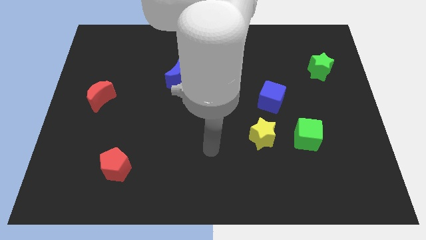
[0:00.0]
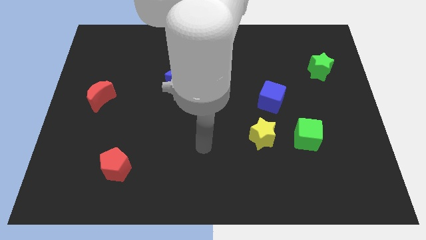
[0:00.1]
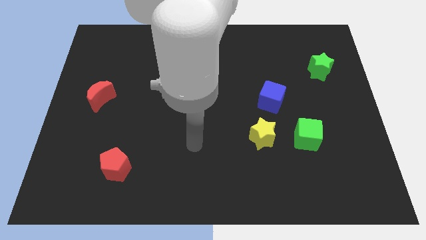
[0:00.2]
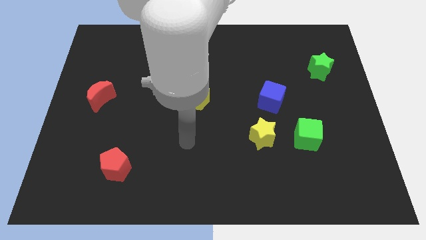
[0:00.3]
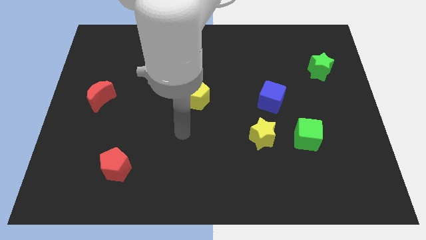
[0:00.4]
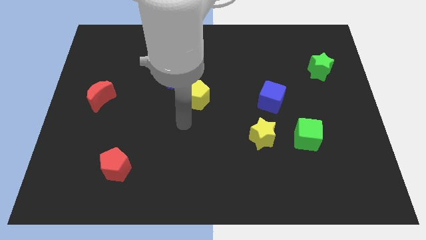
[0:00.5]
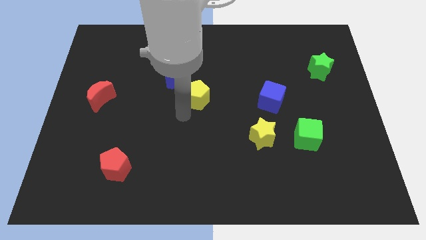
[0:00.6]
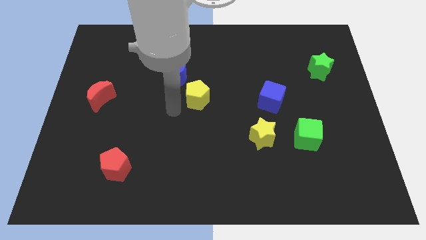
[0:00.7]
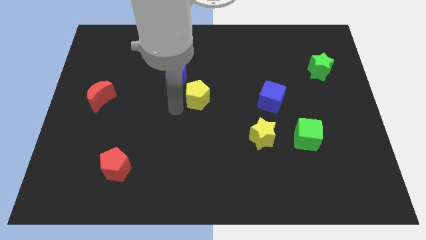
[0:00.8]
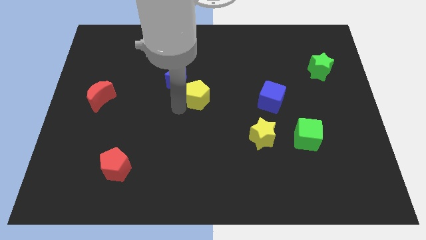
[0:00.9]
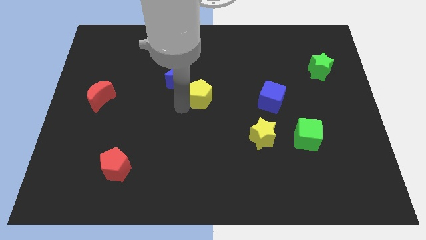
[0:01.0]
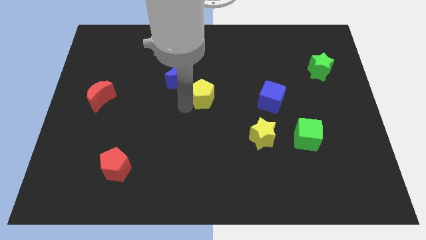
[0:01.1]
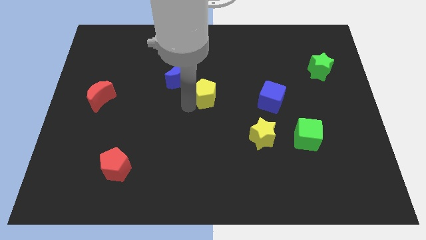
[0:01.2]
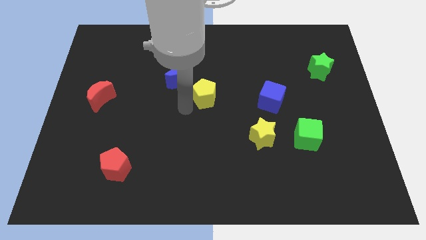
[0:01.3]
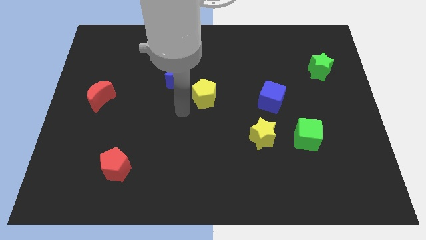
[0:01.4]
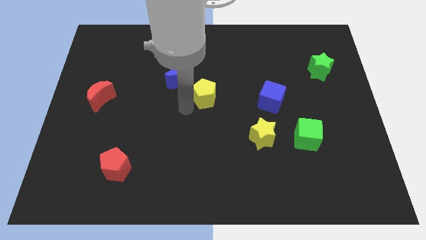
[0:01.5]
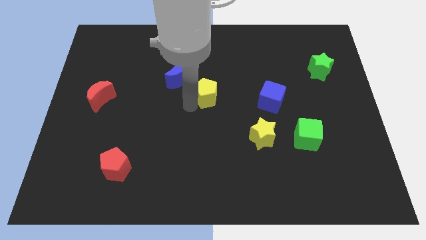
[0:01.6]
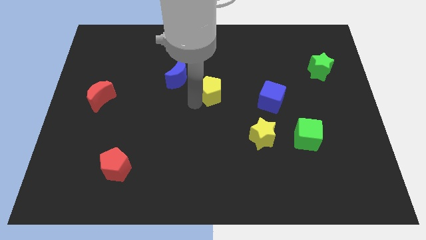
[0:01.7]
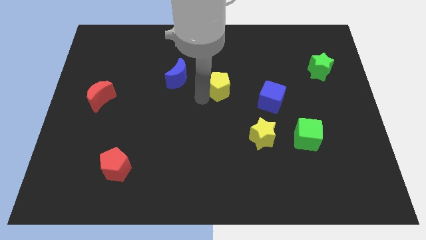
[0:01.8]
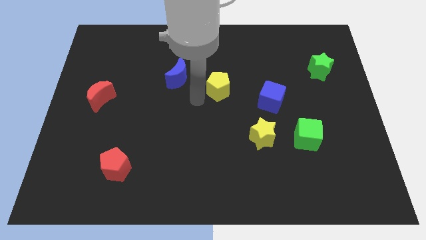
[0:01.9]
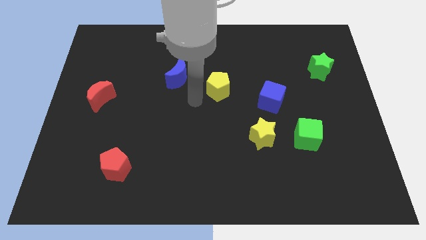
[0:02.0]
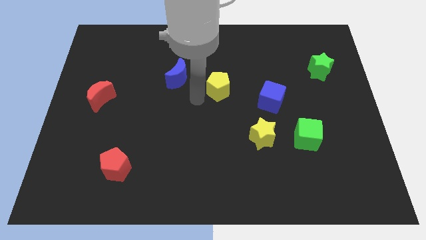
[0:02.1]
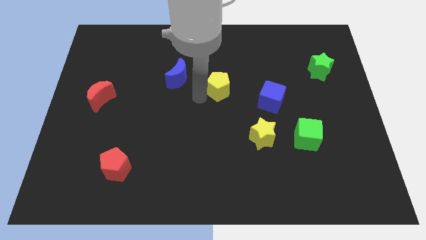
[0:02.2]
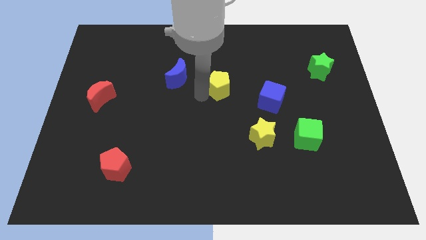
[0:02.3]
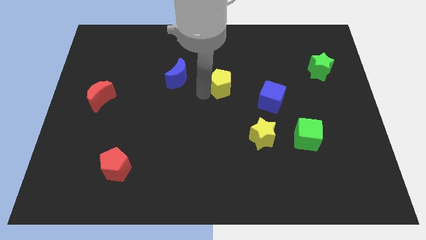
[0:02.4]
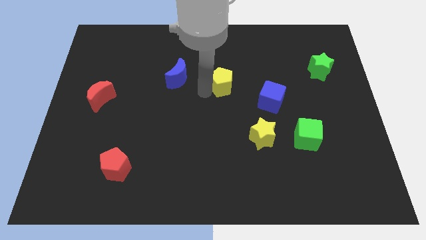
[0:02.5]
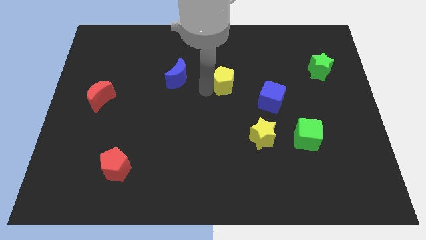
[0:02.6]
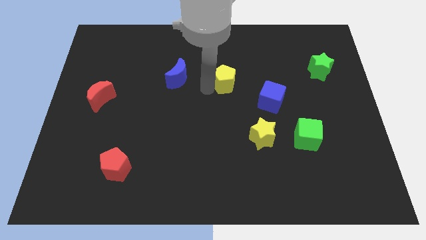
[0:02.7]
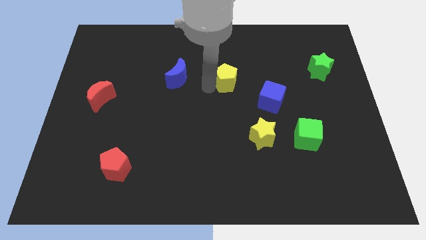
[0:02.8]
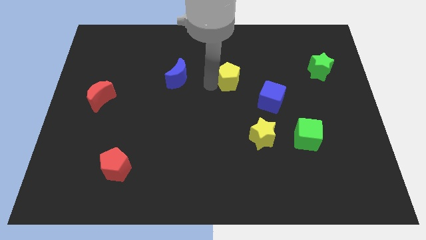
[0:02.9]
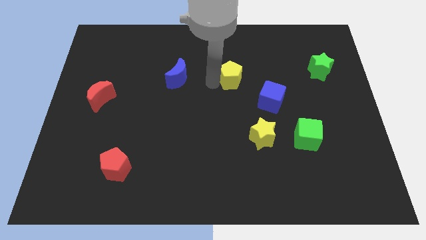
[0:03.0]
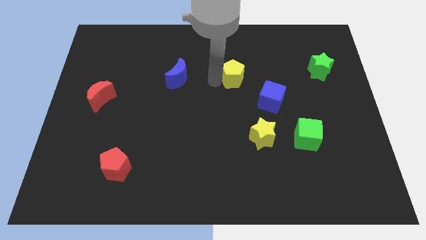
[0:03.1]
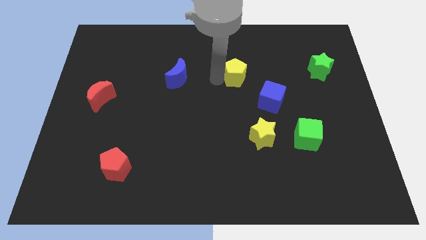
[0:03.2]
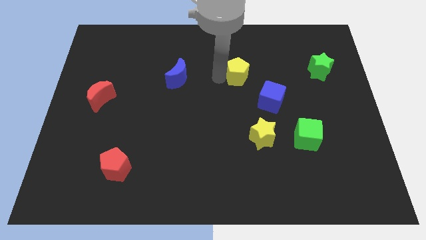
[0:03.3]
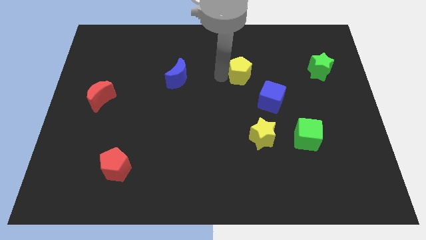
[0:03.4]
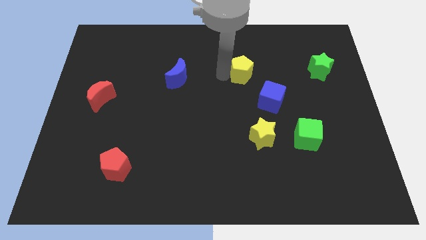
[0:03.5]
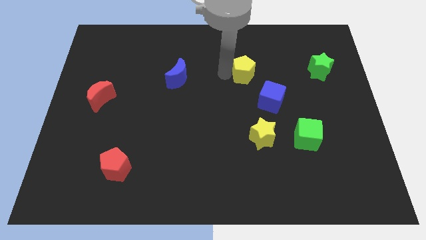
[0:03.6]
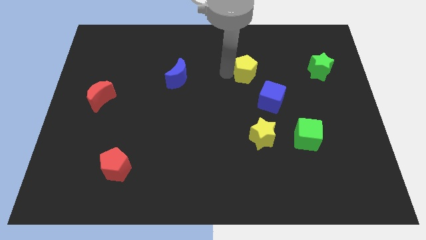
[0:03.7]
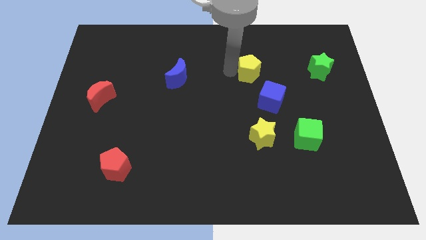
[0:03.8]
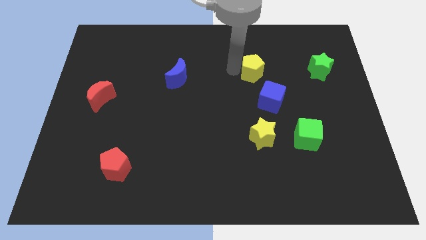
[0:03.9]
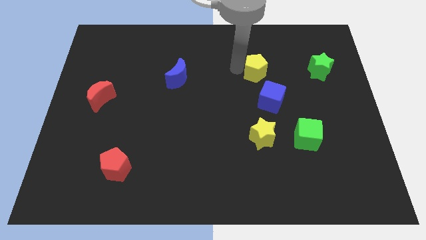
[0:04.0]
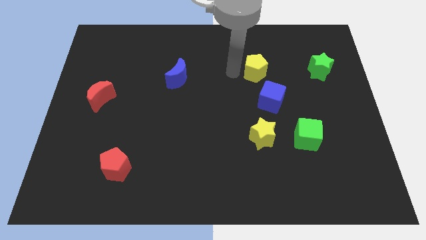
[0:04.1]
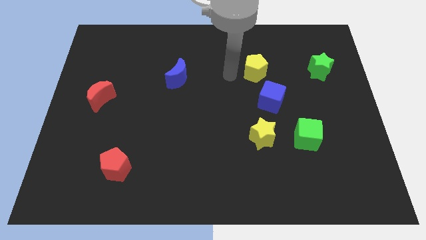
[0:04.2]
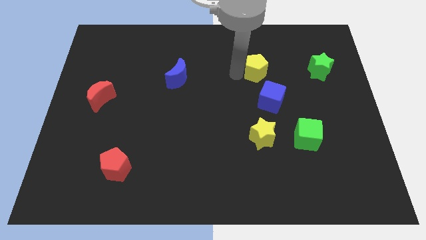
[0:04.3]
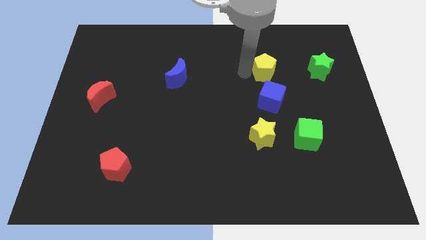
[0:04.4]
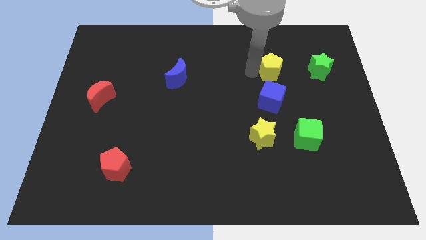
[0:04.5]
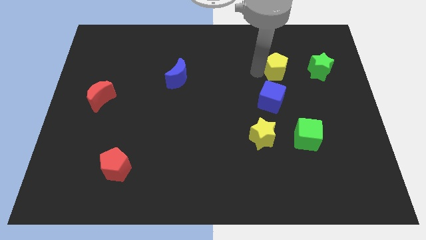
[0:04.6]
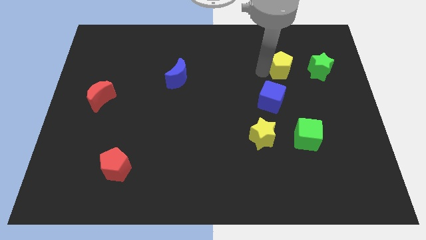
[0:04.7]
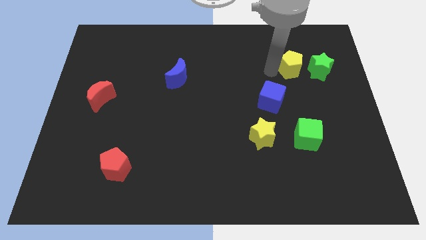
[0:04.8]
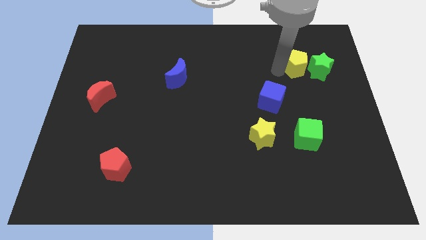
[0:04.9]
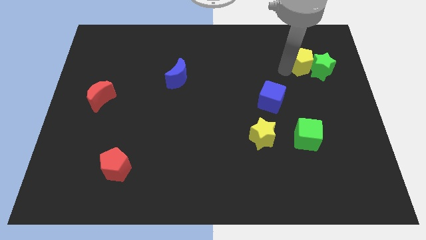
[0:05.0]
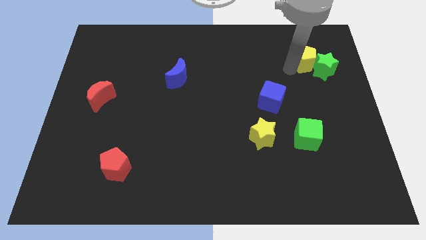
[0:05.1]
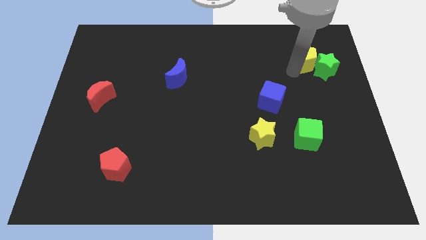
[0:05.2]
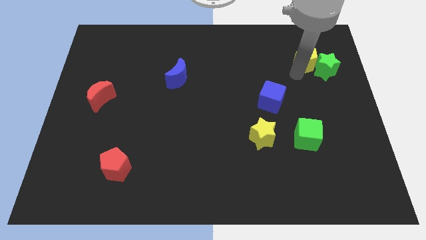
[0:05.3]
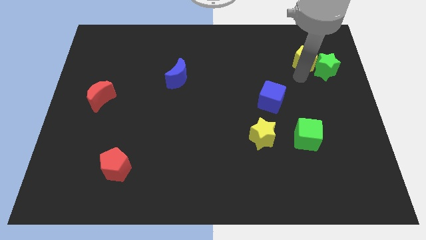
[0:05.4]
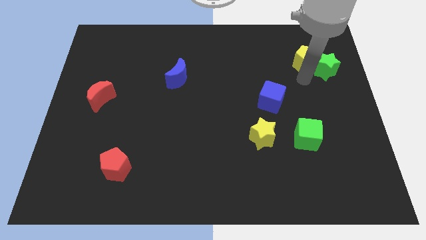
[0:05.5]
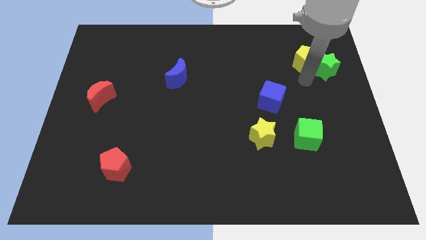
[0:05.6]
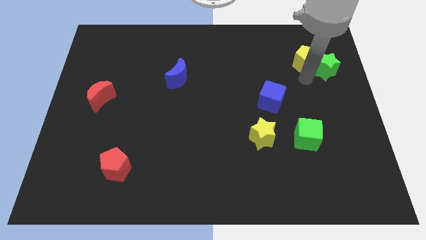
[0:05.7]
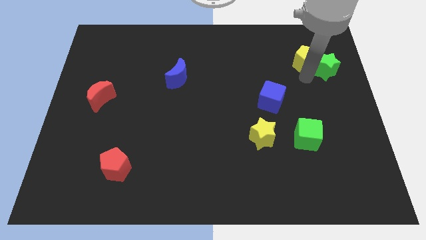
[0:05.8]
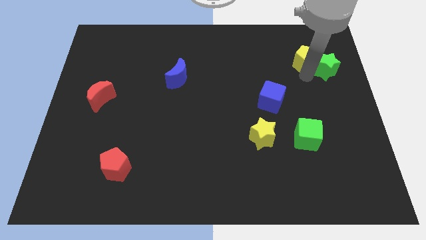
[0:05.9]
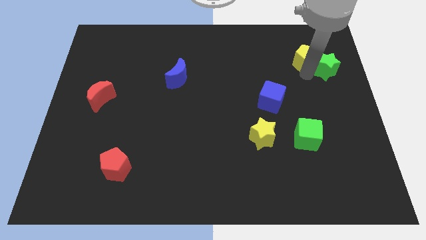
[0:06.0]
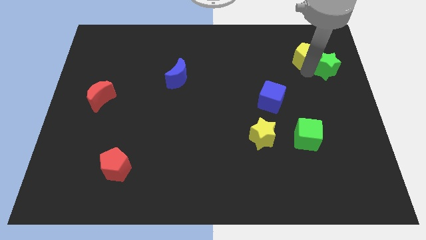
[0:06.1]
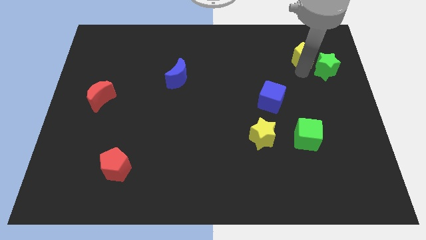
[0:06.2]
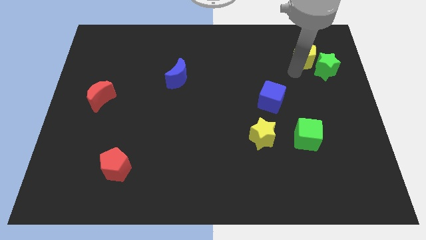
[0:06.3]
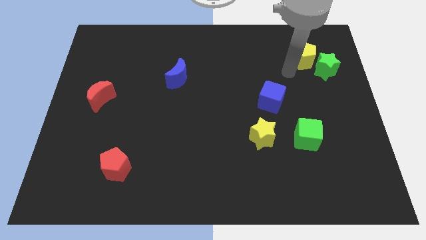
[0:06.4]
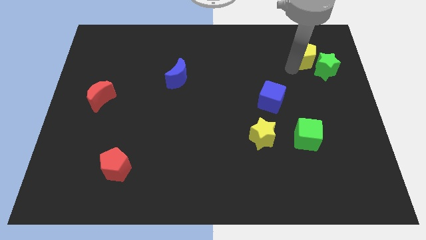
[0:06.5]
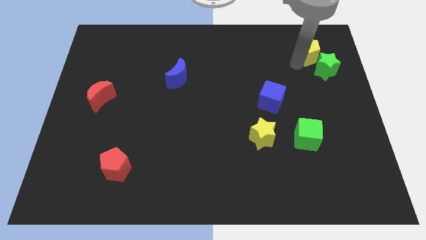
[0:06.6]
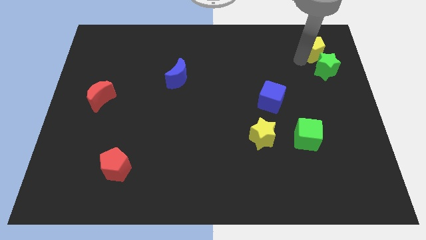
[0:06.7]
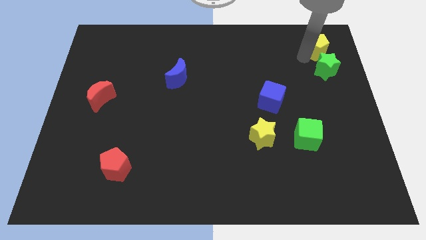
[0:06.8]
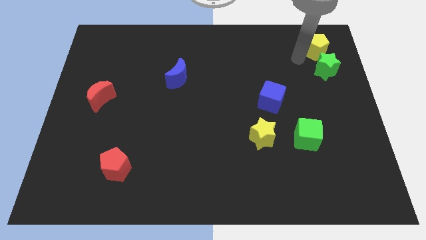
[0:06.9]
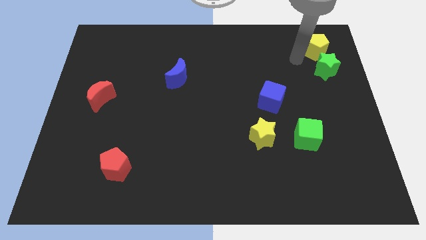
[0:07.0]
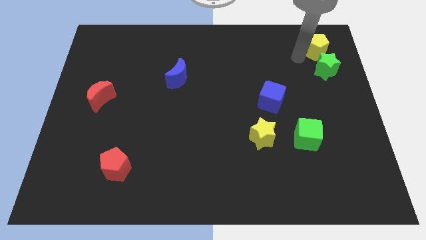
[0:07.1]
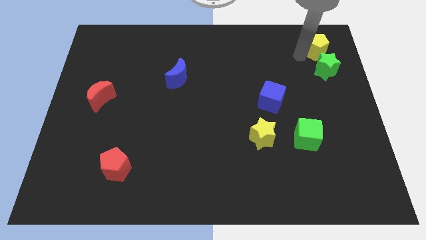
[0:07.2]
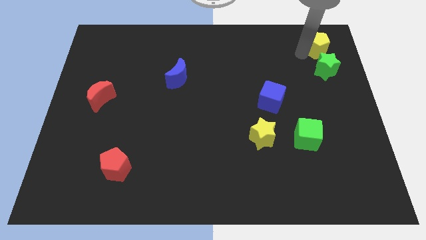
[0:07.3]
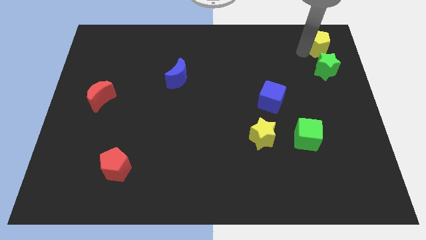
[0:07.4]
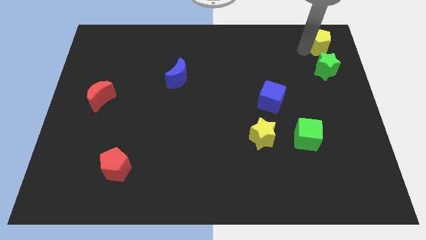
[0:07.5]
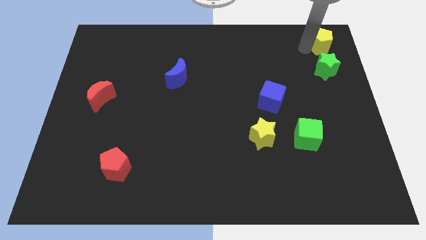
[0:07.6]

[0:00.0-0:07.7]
slide the yellow pentagon to the upper right corner

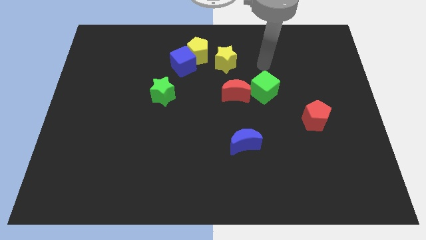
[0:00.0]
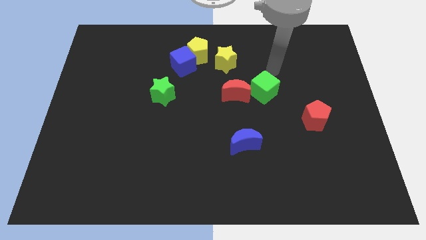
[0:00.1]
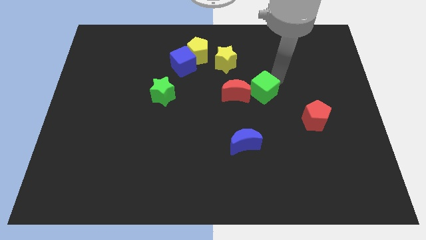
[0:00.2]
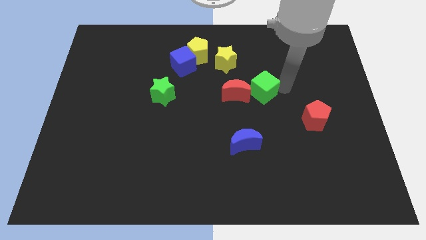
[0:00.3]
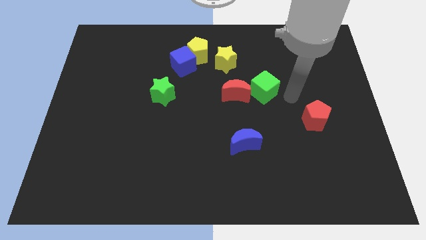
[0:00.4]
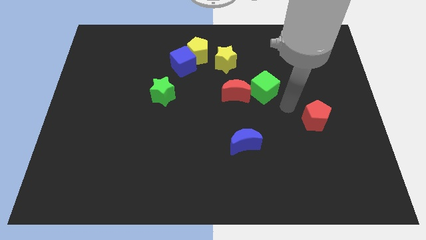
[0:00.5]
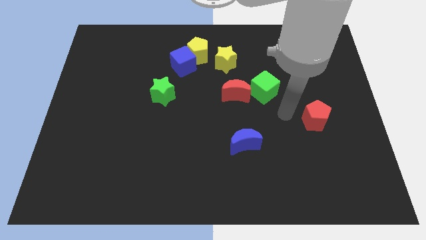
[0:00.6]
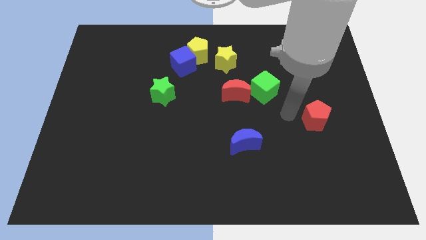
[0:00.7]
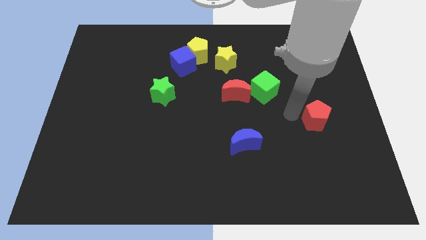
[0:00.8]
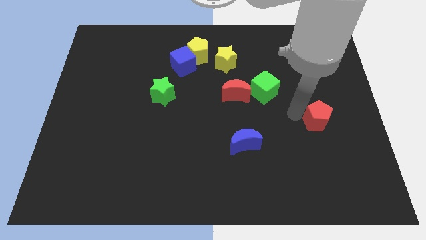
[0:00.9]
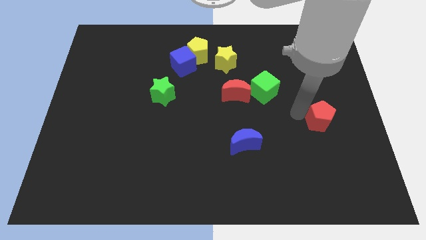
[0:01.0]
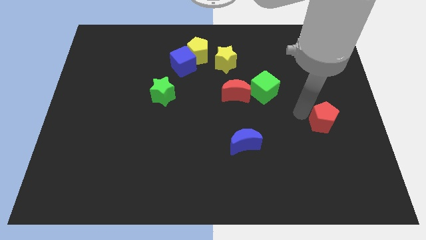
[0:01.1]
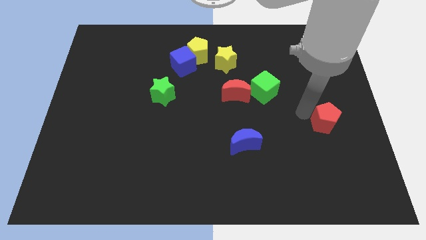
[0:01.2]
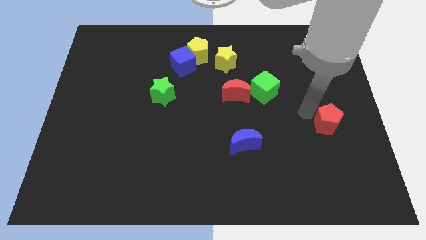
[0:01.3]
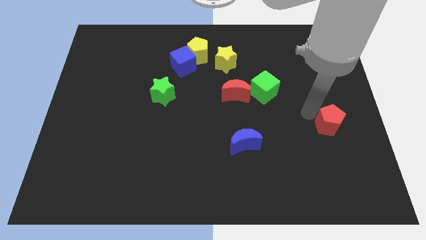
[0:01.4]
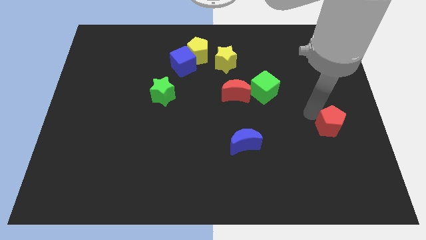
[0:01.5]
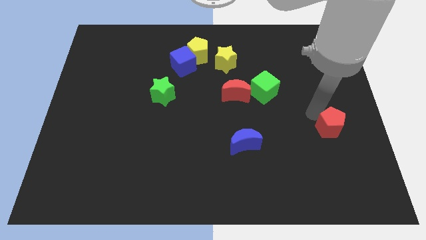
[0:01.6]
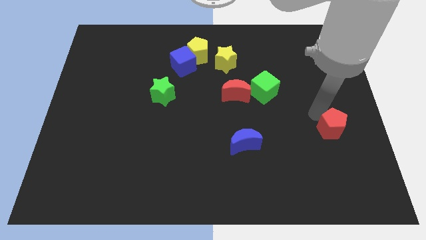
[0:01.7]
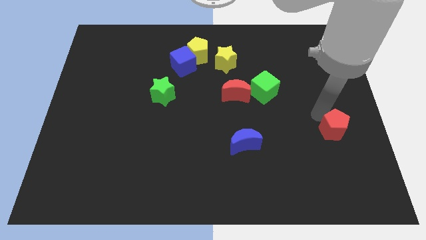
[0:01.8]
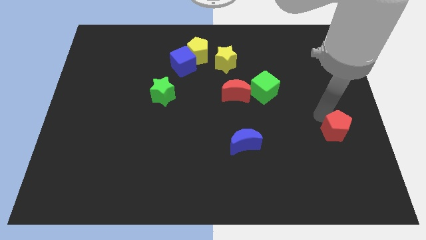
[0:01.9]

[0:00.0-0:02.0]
put the red pentagon to the center right
